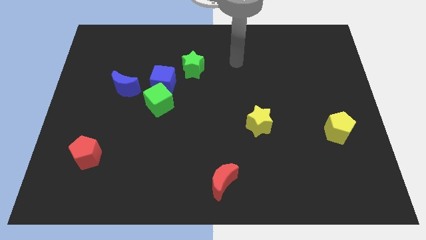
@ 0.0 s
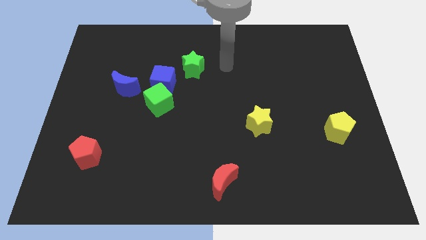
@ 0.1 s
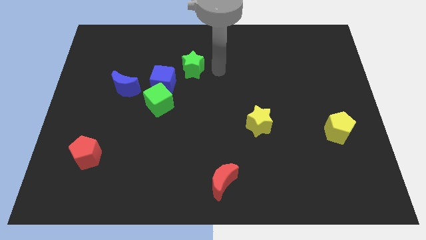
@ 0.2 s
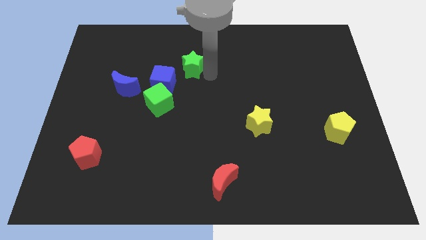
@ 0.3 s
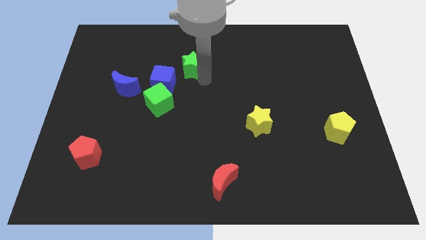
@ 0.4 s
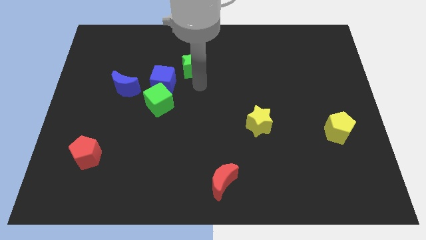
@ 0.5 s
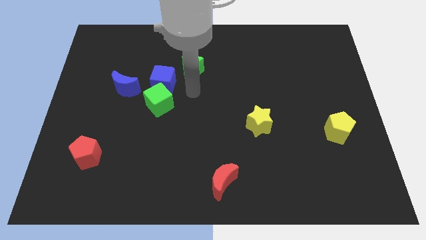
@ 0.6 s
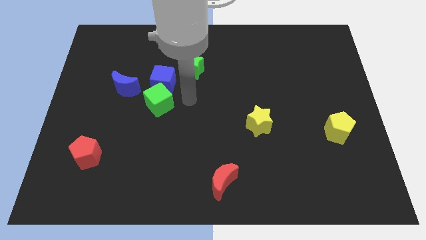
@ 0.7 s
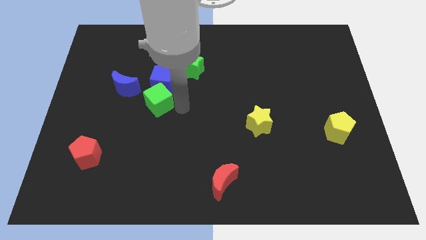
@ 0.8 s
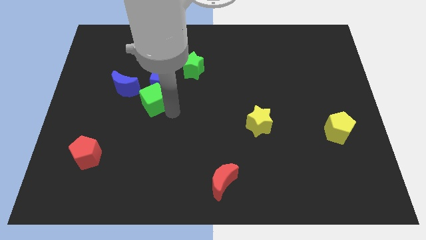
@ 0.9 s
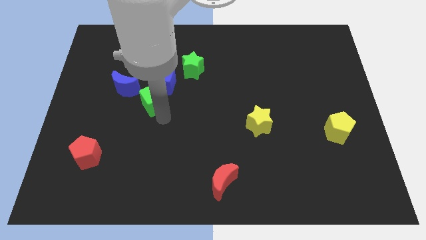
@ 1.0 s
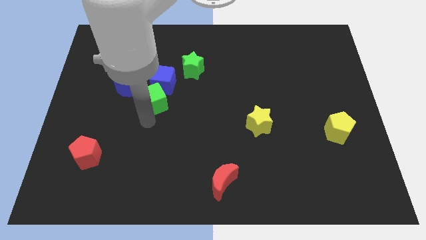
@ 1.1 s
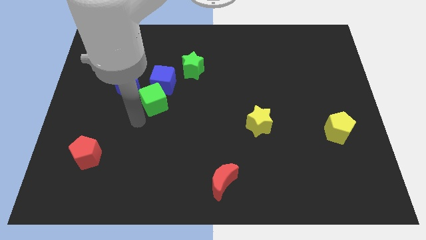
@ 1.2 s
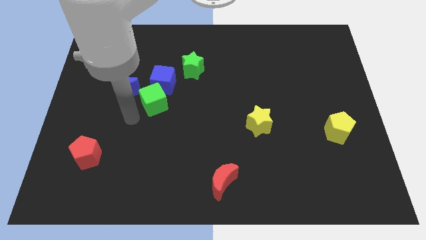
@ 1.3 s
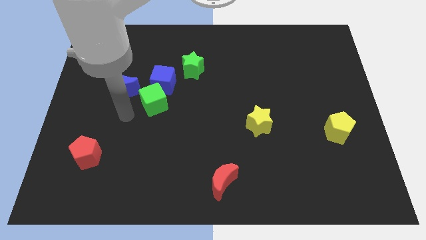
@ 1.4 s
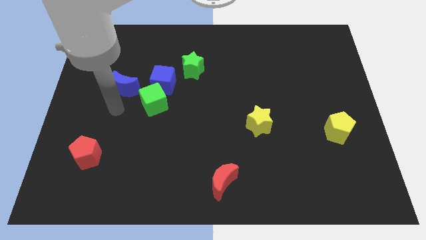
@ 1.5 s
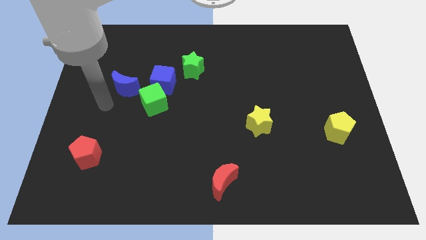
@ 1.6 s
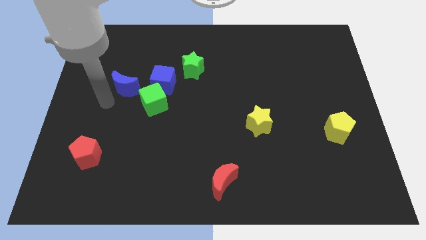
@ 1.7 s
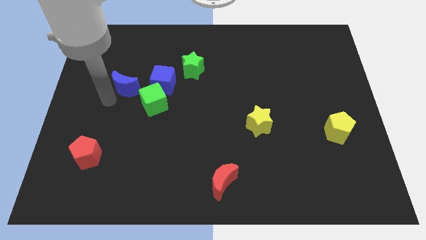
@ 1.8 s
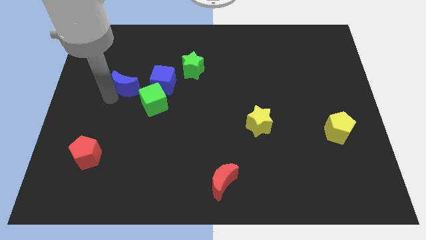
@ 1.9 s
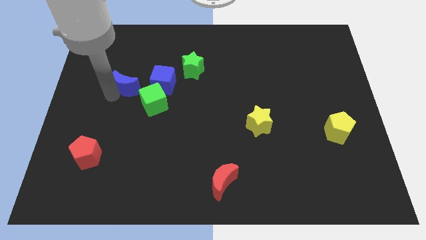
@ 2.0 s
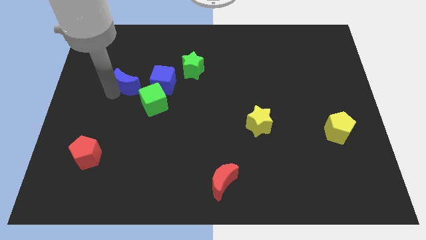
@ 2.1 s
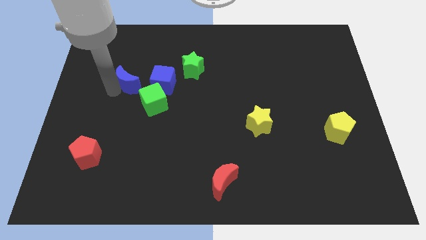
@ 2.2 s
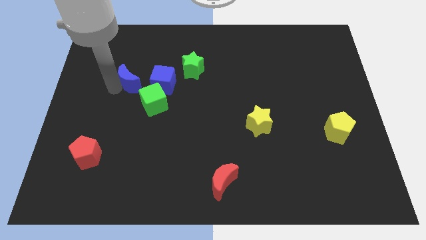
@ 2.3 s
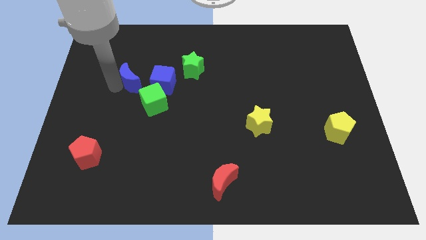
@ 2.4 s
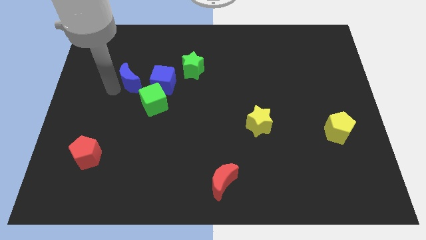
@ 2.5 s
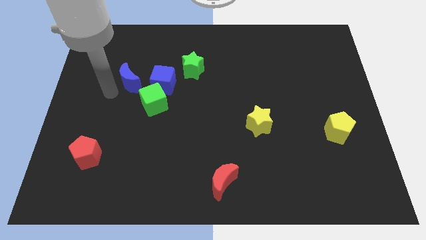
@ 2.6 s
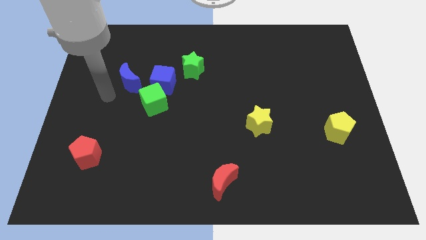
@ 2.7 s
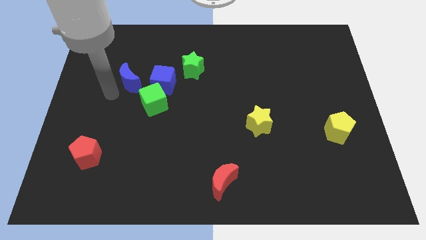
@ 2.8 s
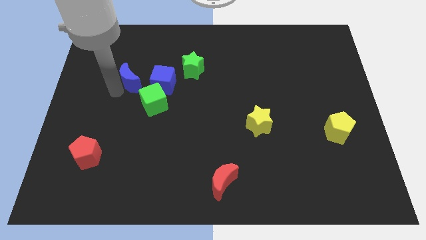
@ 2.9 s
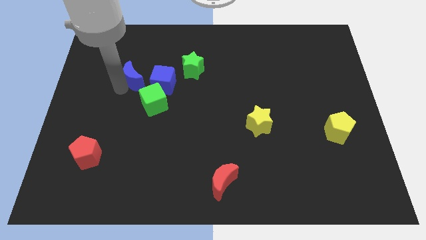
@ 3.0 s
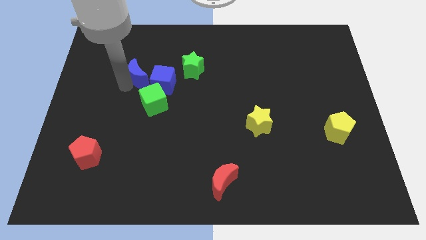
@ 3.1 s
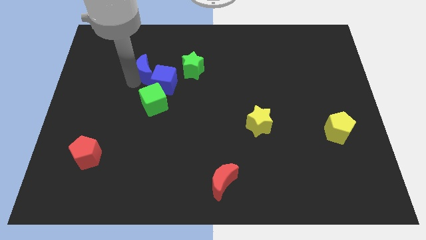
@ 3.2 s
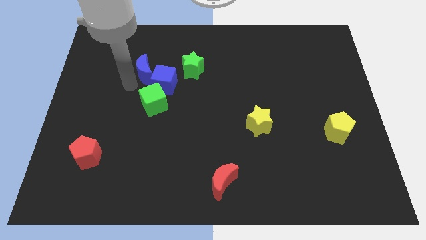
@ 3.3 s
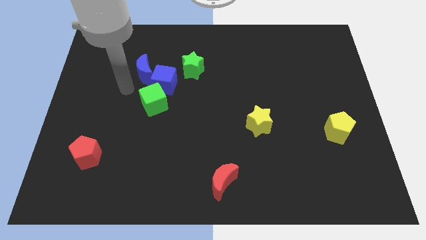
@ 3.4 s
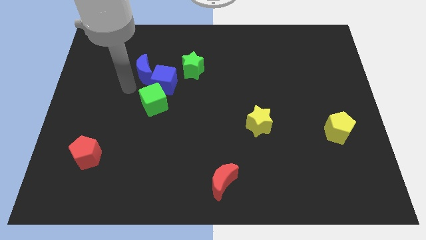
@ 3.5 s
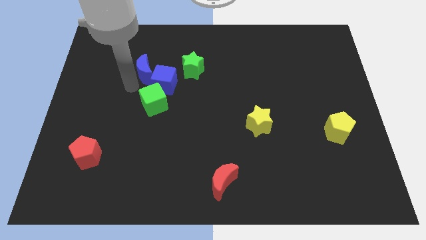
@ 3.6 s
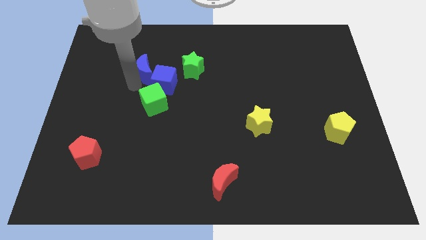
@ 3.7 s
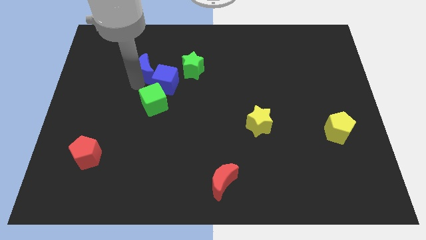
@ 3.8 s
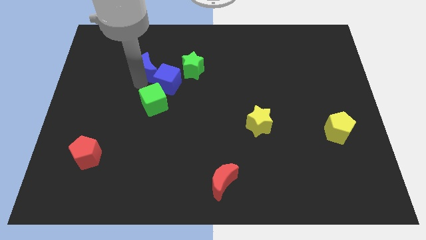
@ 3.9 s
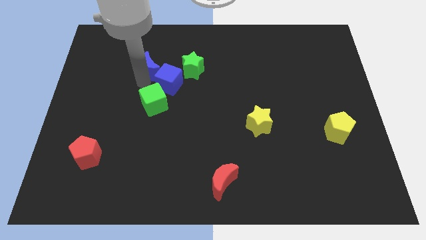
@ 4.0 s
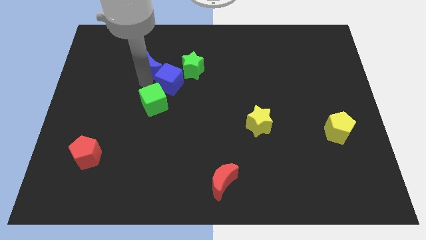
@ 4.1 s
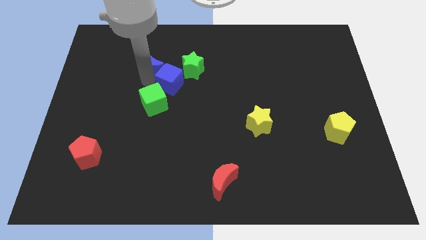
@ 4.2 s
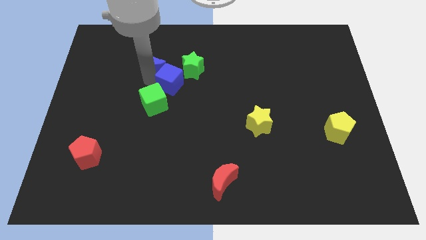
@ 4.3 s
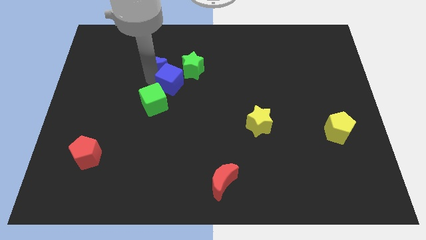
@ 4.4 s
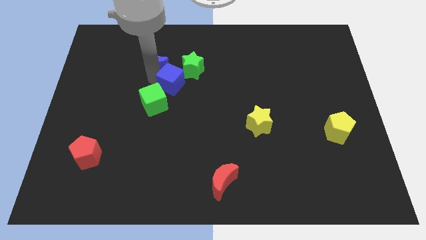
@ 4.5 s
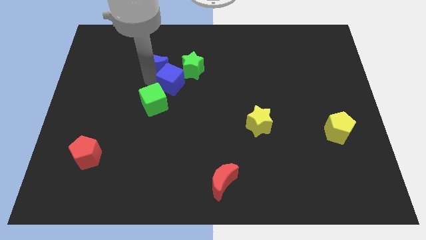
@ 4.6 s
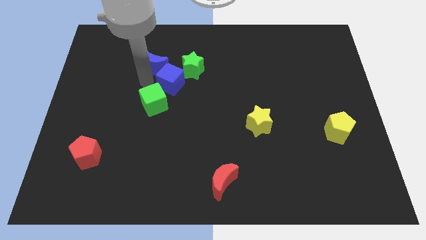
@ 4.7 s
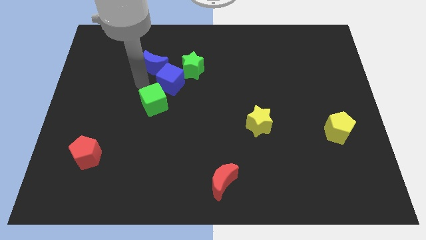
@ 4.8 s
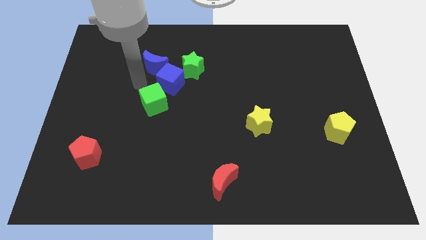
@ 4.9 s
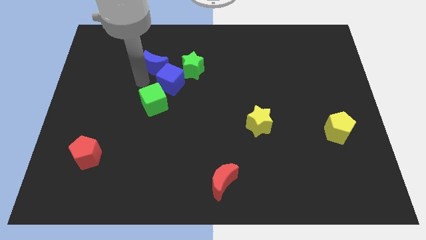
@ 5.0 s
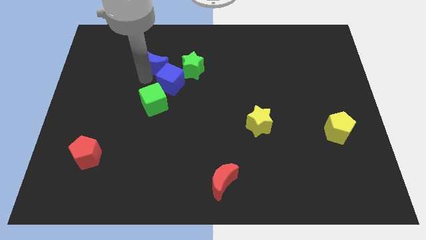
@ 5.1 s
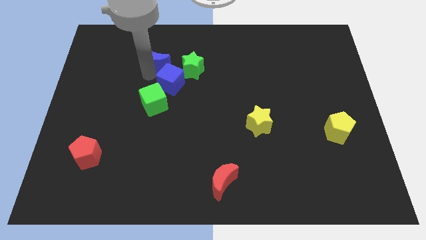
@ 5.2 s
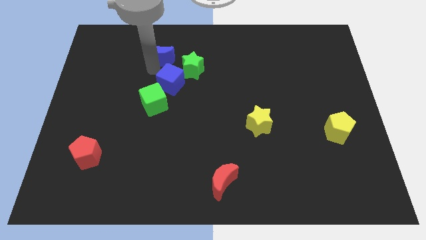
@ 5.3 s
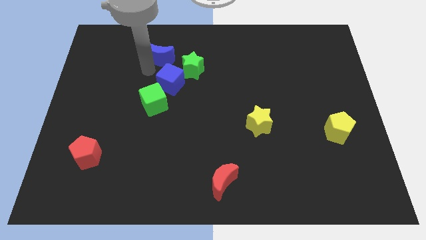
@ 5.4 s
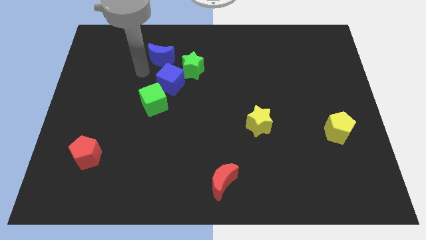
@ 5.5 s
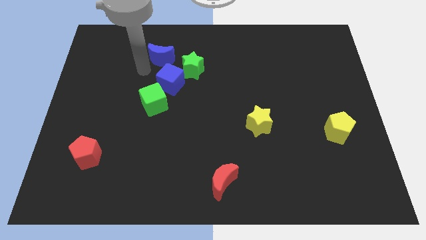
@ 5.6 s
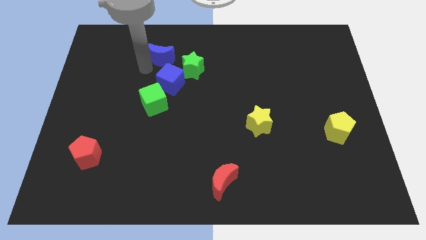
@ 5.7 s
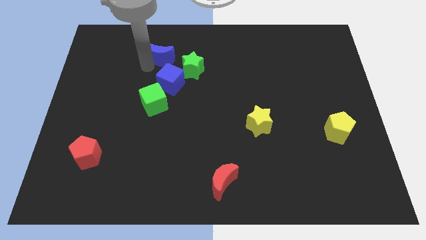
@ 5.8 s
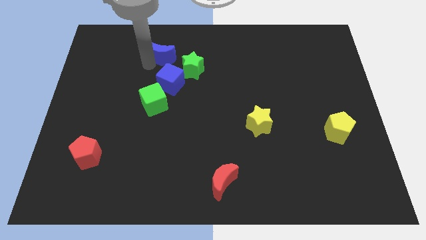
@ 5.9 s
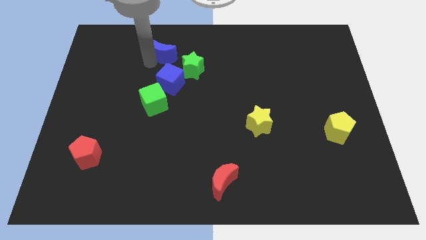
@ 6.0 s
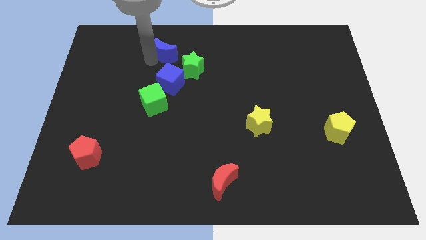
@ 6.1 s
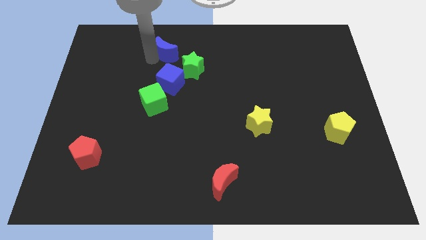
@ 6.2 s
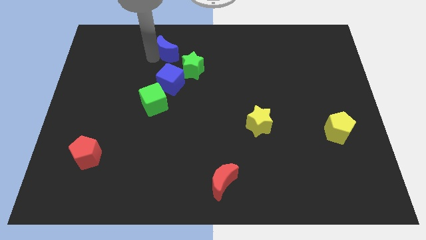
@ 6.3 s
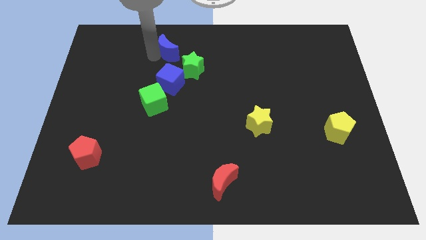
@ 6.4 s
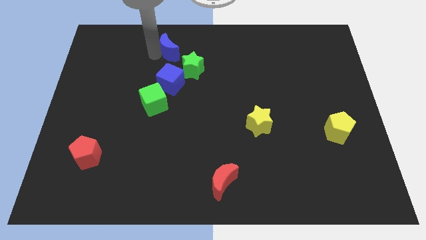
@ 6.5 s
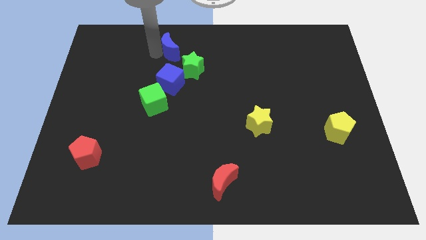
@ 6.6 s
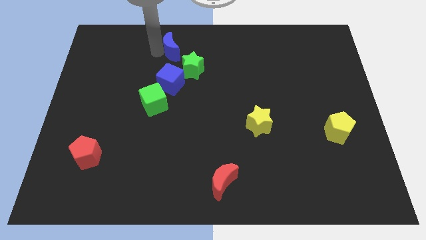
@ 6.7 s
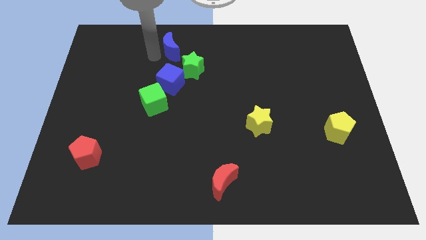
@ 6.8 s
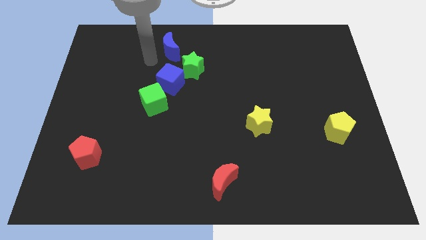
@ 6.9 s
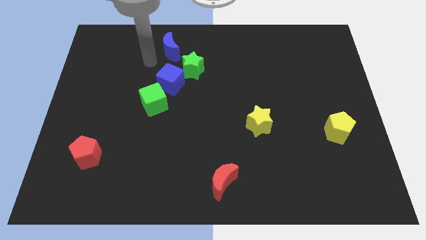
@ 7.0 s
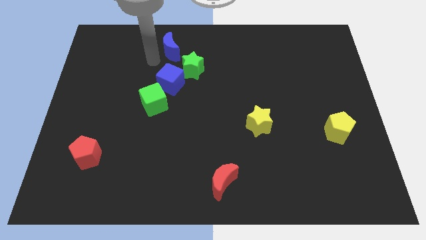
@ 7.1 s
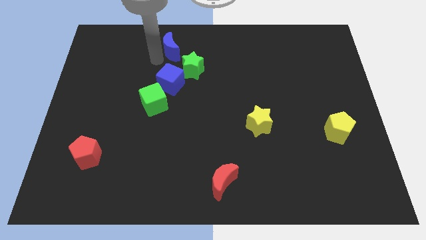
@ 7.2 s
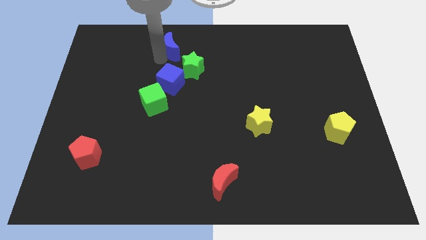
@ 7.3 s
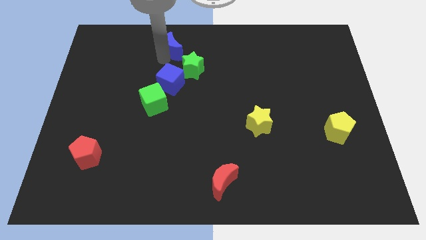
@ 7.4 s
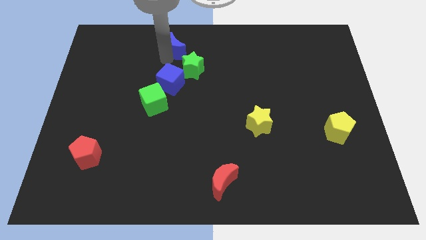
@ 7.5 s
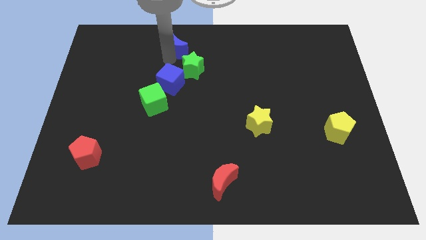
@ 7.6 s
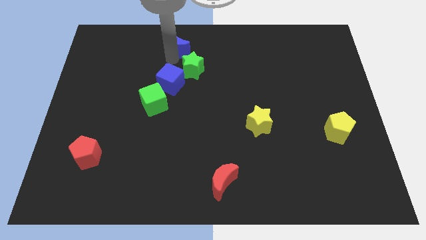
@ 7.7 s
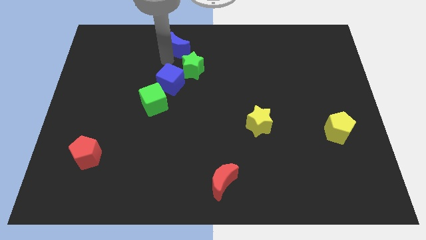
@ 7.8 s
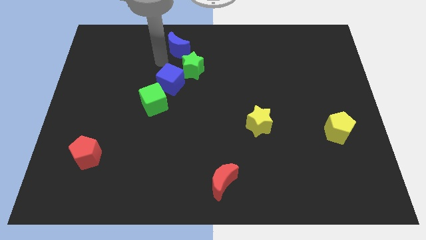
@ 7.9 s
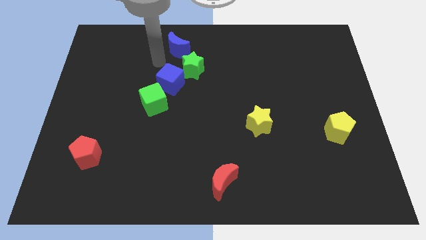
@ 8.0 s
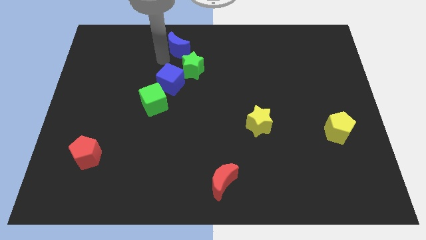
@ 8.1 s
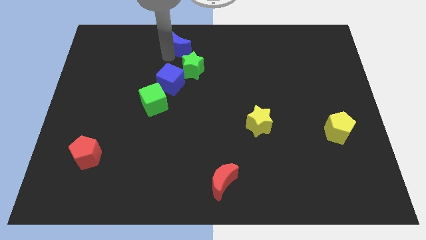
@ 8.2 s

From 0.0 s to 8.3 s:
put the blue moon to the top side
